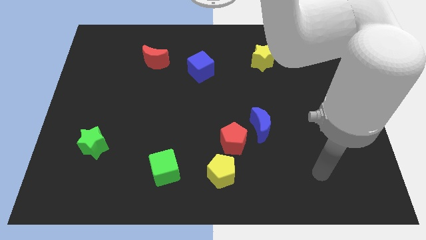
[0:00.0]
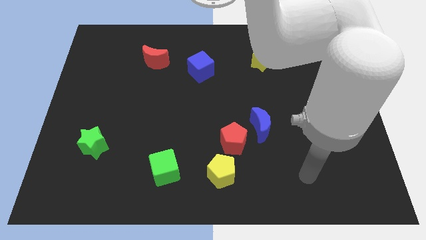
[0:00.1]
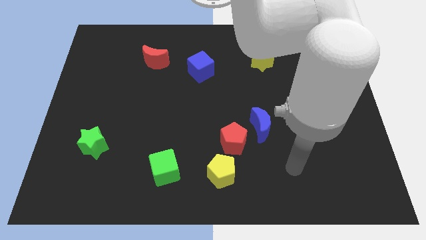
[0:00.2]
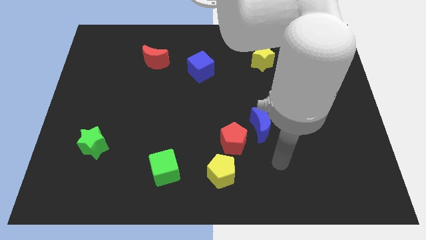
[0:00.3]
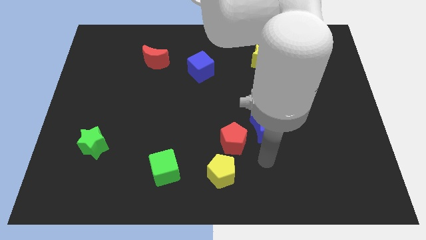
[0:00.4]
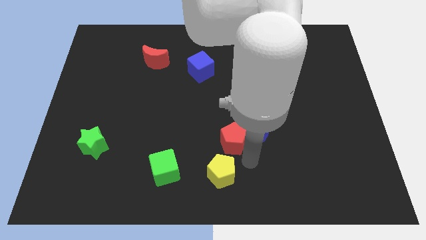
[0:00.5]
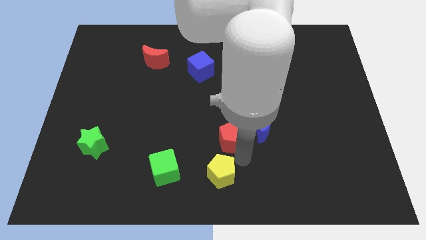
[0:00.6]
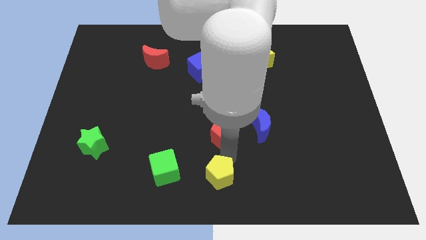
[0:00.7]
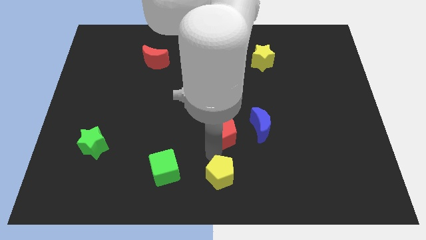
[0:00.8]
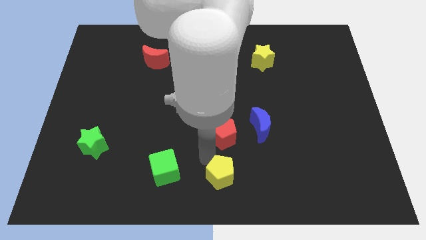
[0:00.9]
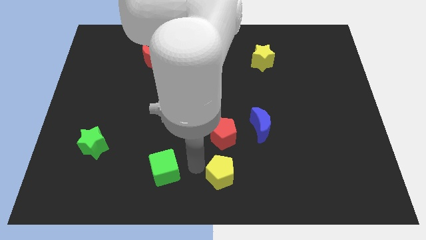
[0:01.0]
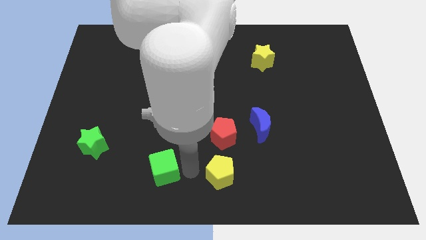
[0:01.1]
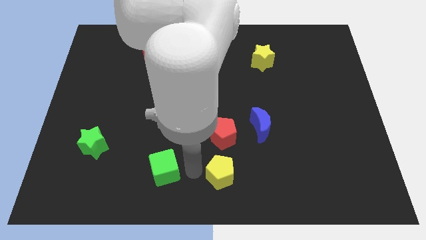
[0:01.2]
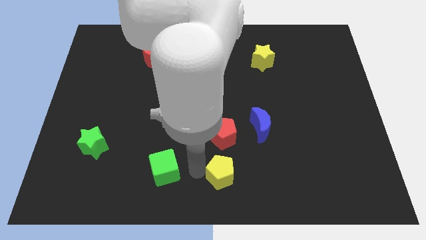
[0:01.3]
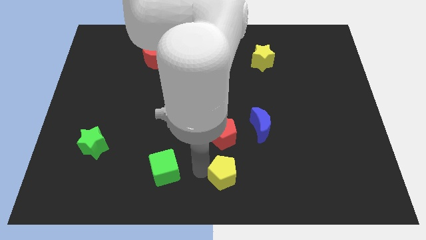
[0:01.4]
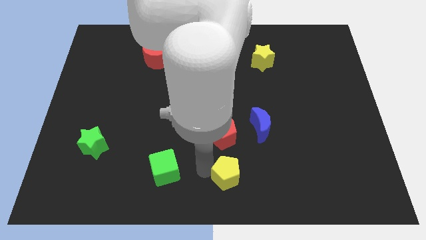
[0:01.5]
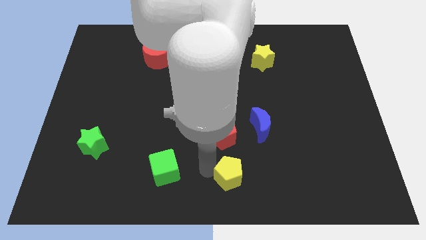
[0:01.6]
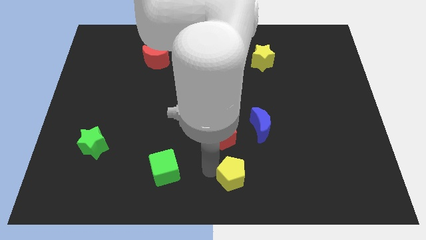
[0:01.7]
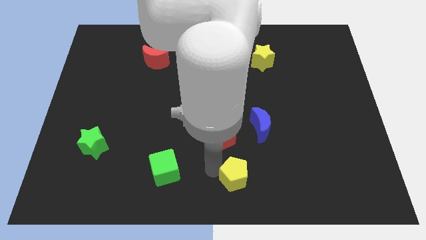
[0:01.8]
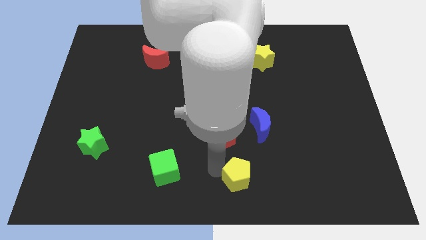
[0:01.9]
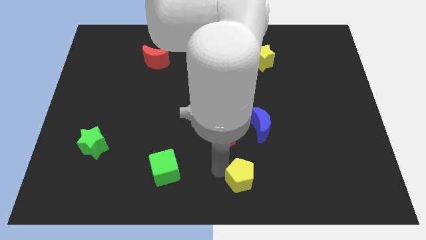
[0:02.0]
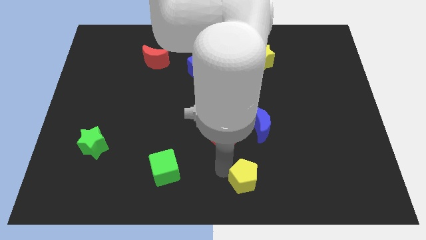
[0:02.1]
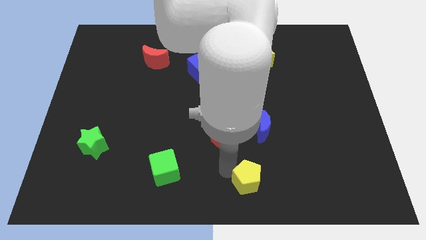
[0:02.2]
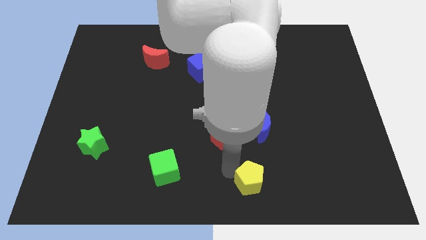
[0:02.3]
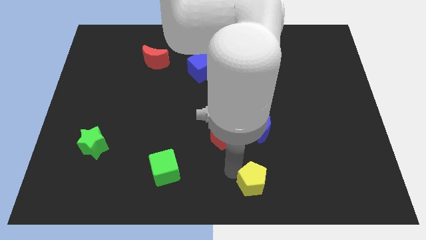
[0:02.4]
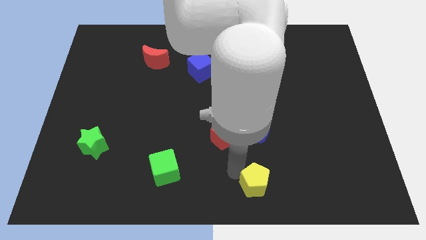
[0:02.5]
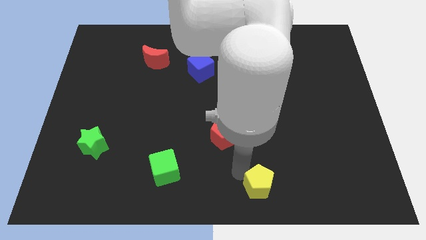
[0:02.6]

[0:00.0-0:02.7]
slightly push the yellow pentagon to the right

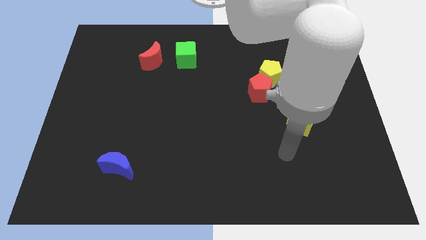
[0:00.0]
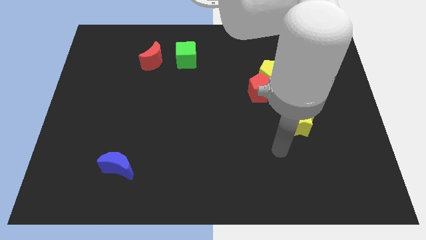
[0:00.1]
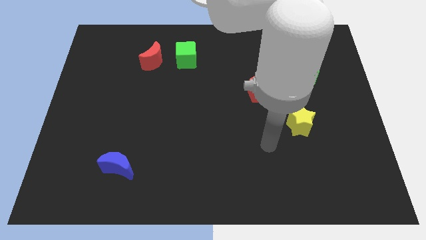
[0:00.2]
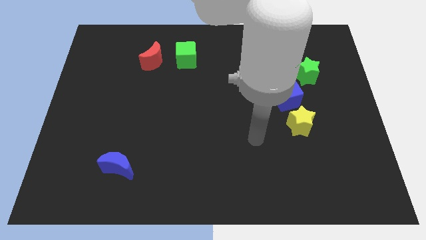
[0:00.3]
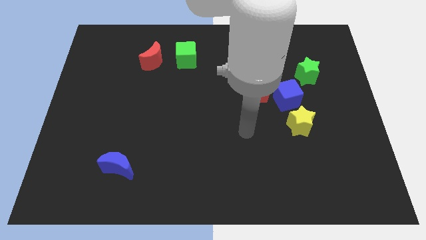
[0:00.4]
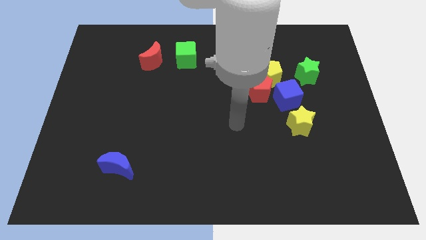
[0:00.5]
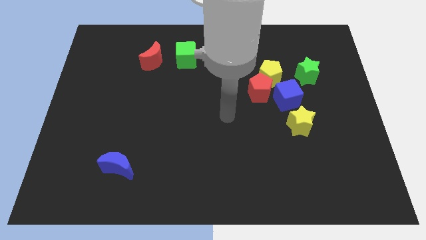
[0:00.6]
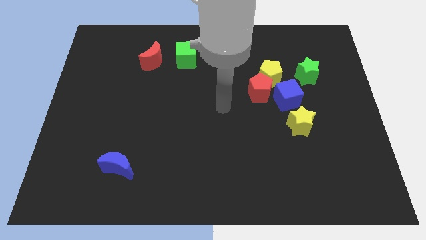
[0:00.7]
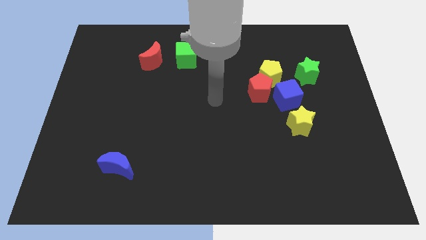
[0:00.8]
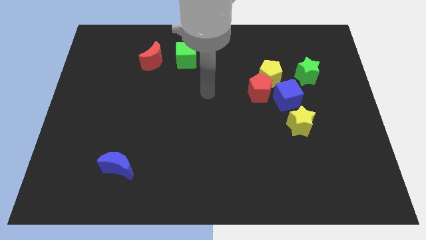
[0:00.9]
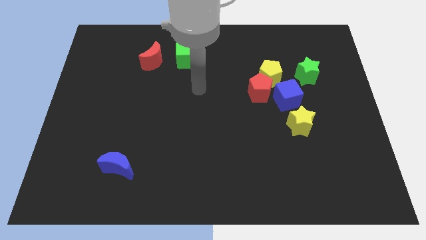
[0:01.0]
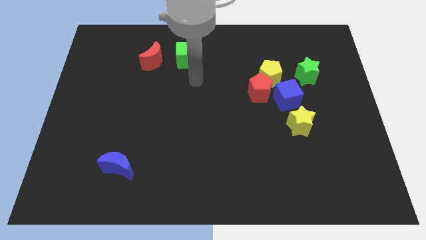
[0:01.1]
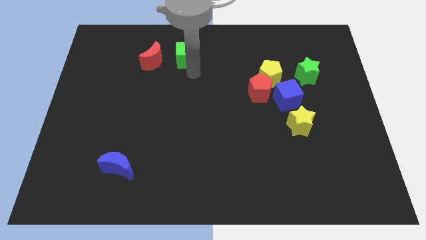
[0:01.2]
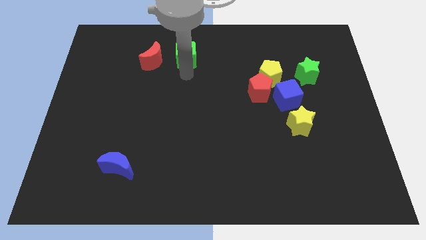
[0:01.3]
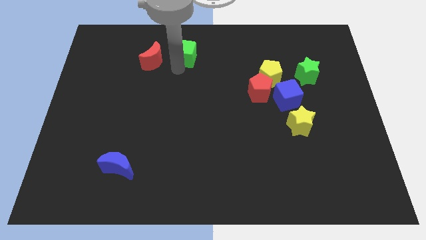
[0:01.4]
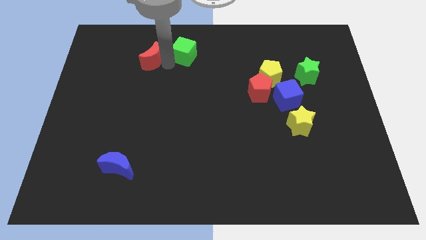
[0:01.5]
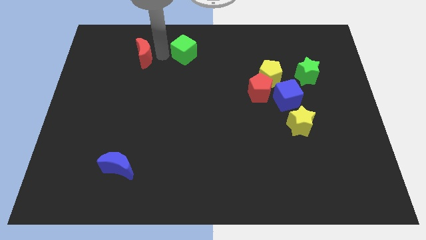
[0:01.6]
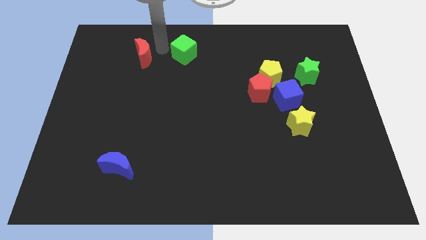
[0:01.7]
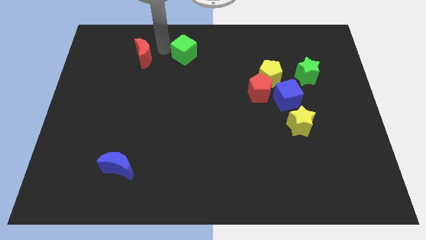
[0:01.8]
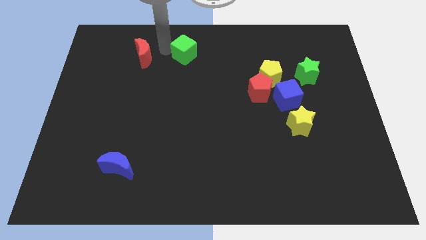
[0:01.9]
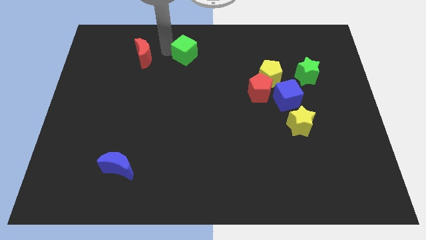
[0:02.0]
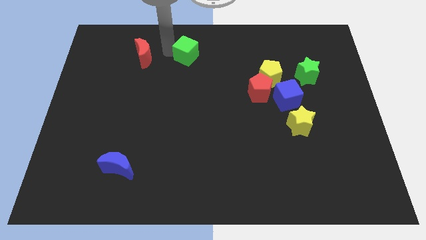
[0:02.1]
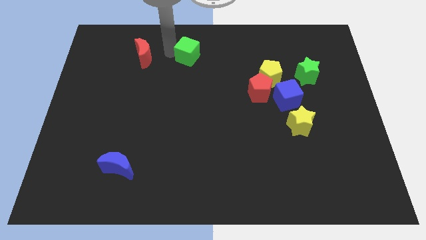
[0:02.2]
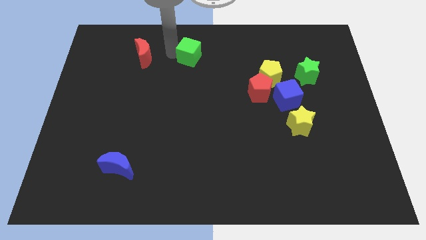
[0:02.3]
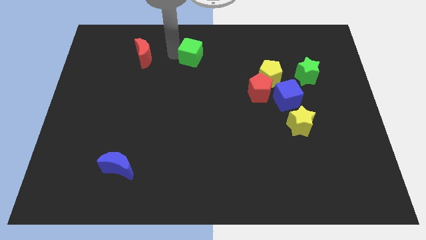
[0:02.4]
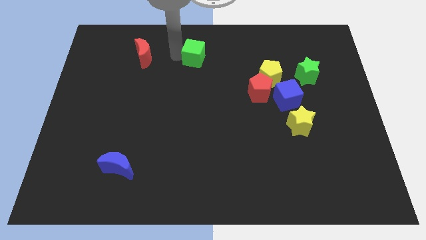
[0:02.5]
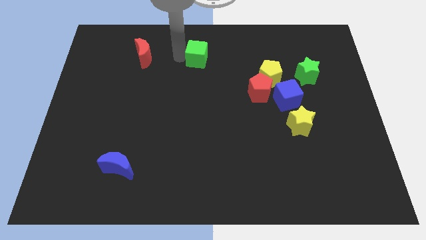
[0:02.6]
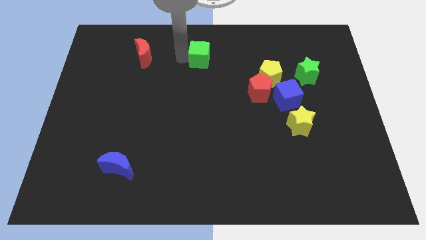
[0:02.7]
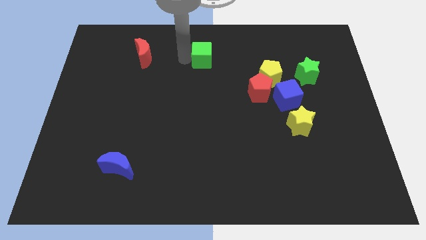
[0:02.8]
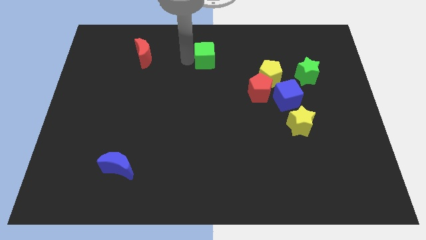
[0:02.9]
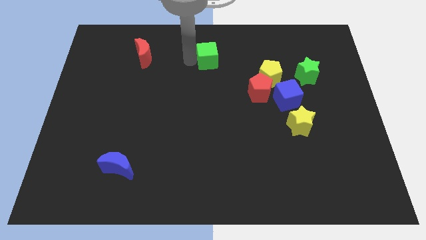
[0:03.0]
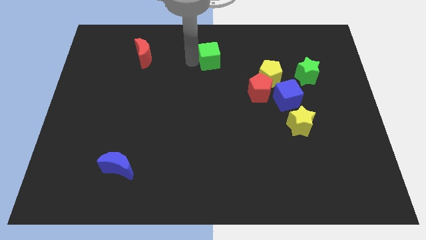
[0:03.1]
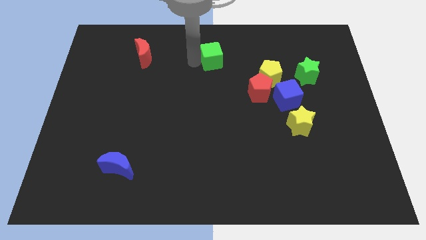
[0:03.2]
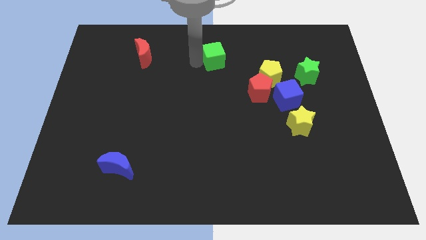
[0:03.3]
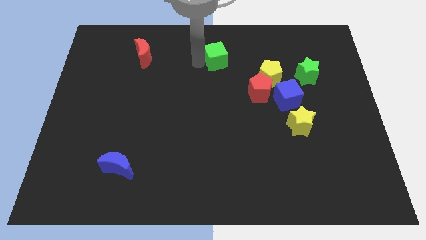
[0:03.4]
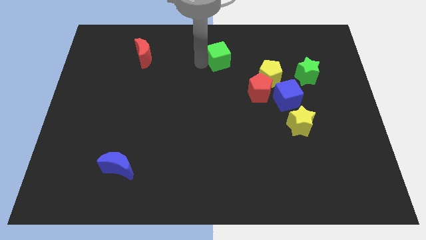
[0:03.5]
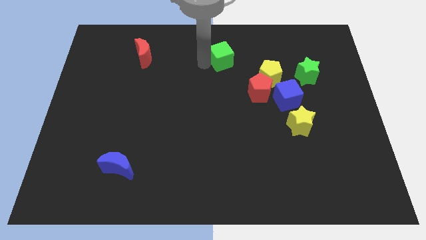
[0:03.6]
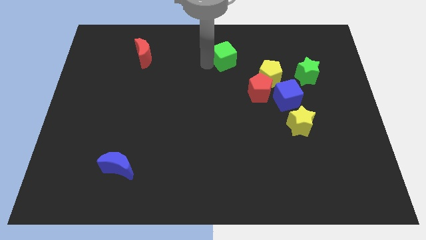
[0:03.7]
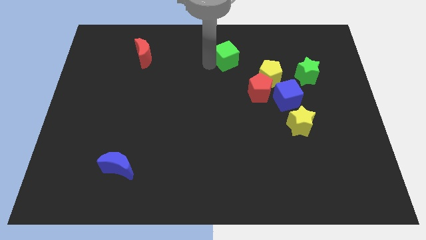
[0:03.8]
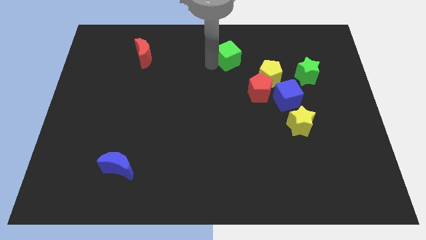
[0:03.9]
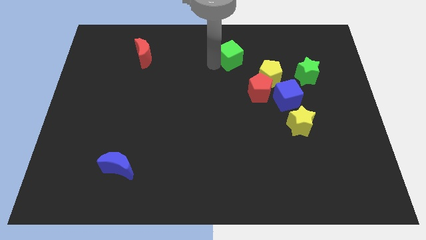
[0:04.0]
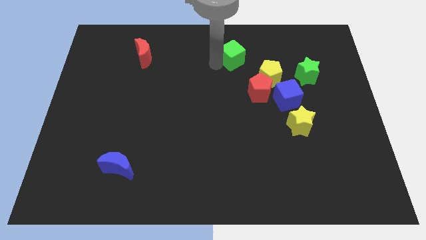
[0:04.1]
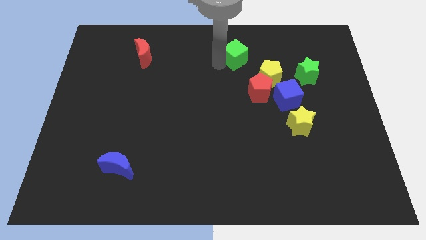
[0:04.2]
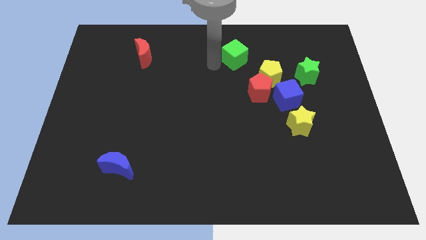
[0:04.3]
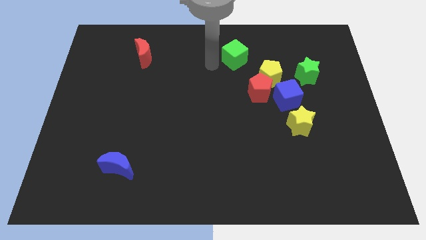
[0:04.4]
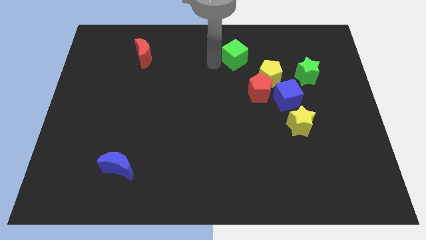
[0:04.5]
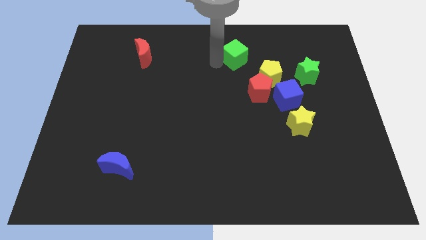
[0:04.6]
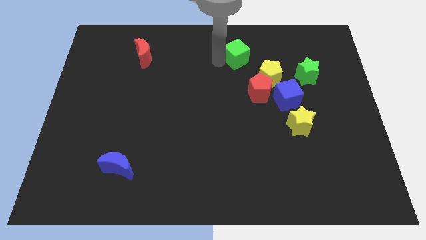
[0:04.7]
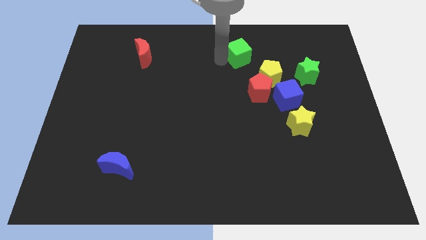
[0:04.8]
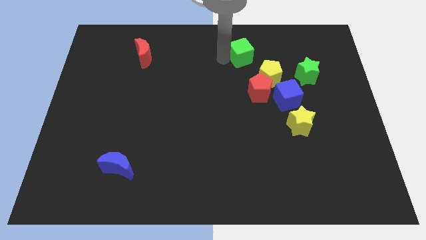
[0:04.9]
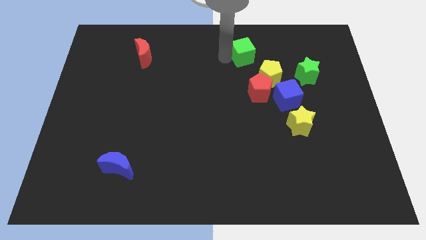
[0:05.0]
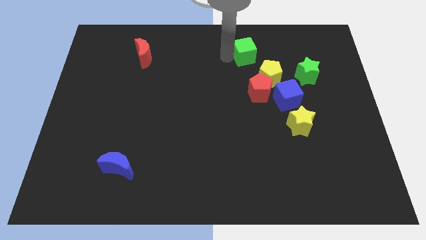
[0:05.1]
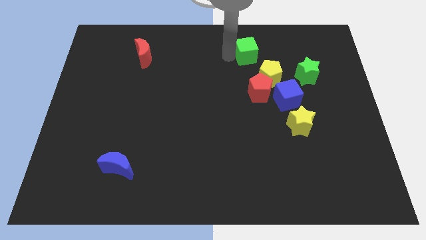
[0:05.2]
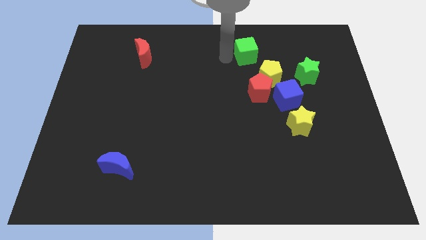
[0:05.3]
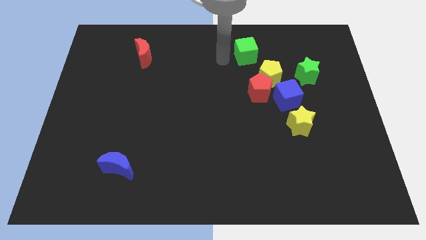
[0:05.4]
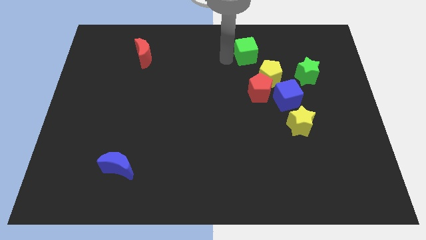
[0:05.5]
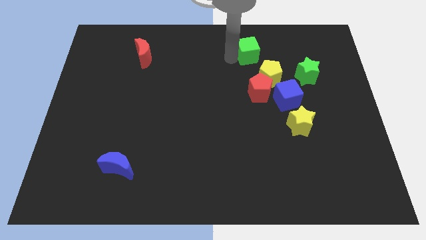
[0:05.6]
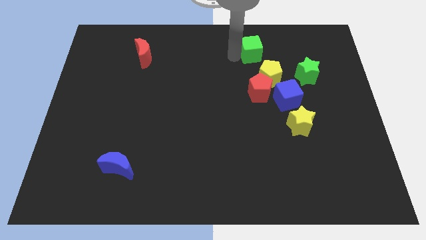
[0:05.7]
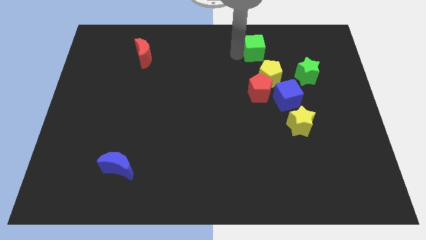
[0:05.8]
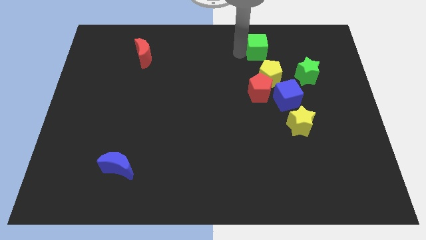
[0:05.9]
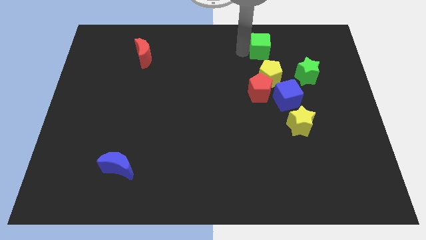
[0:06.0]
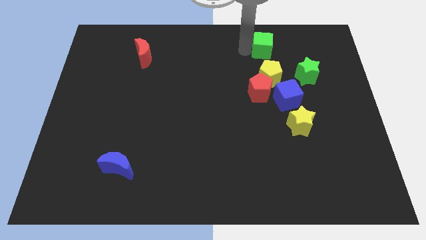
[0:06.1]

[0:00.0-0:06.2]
push the green cube to the right
